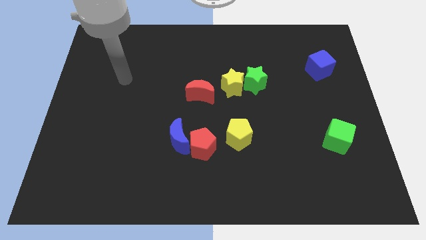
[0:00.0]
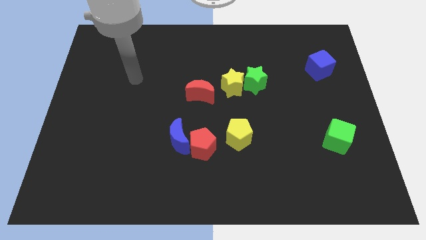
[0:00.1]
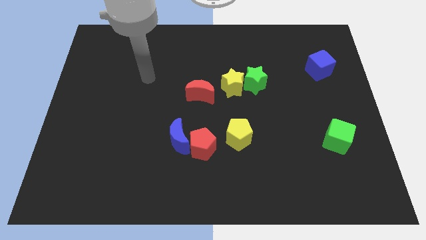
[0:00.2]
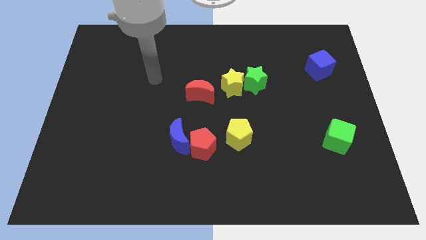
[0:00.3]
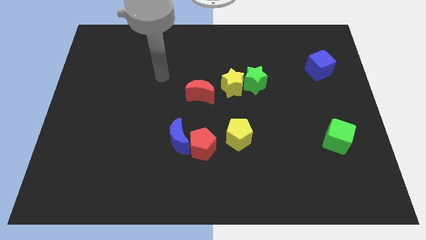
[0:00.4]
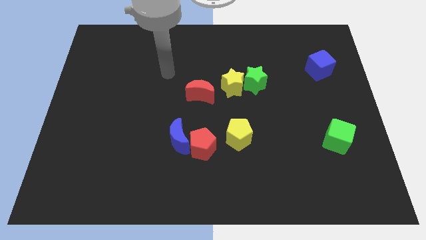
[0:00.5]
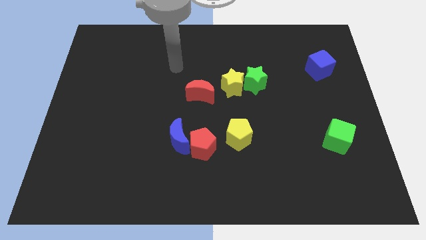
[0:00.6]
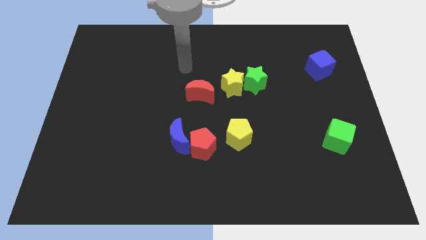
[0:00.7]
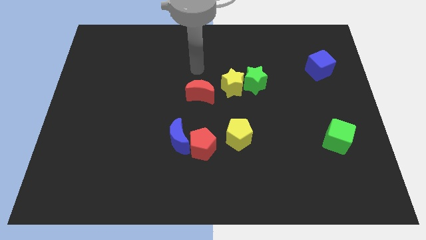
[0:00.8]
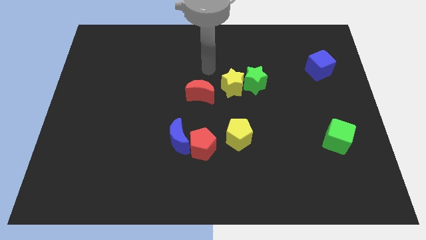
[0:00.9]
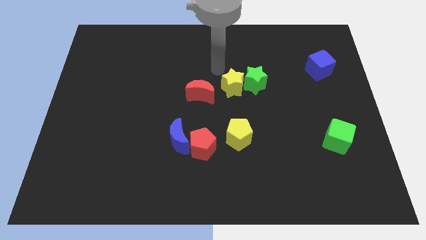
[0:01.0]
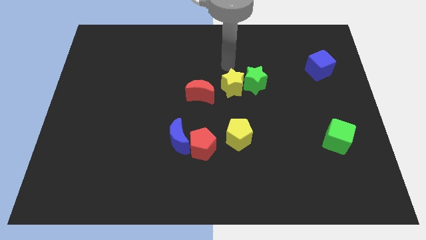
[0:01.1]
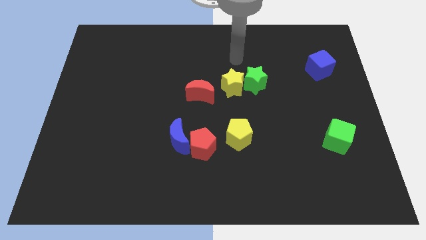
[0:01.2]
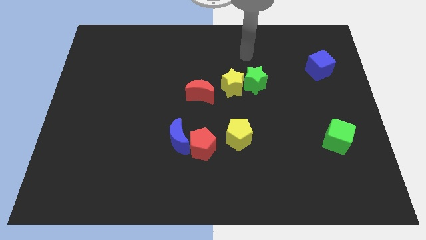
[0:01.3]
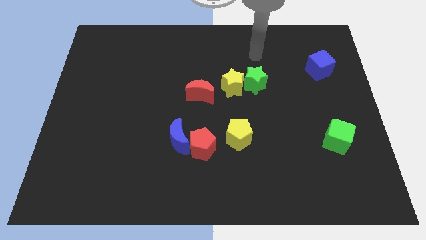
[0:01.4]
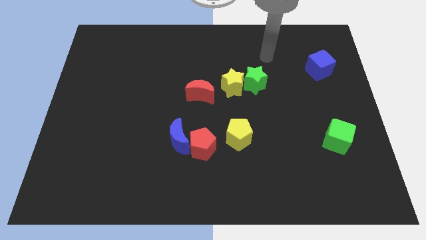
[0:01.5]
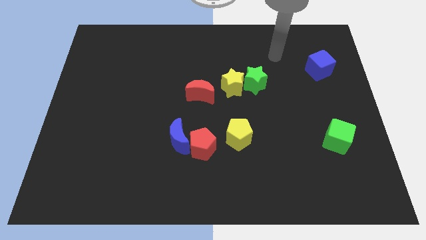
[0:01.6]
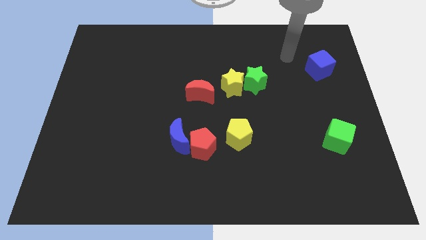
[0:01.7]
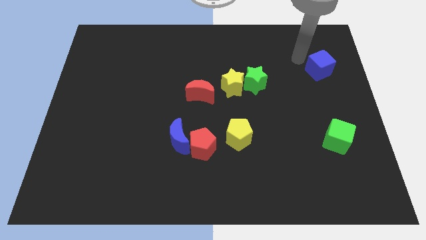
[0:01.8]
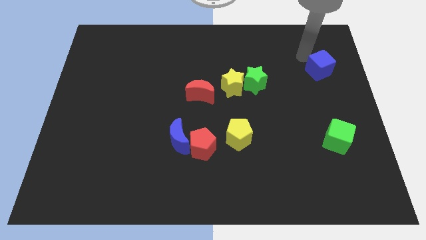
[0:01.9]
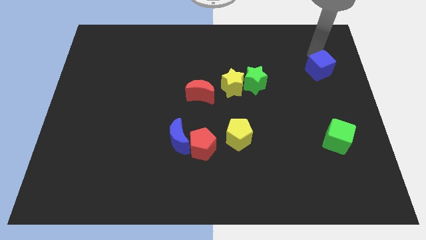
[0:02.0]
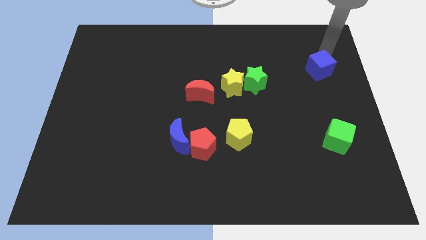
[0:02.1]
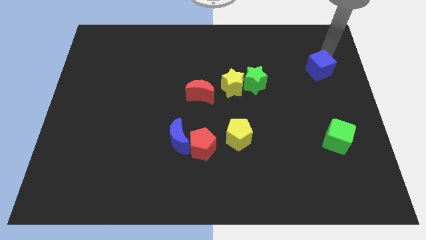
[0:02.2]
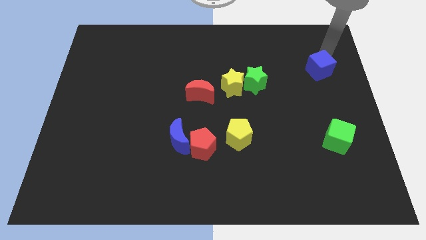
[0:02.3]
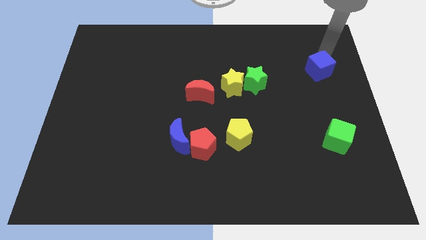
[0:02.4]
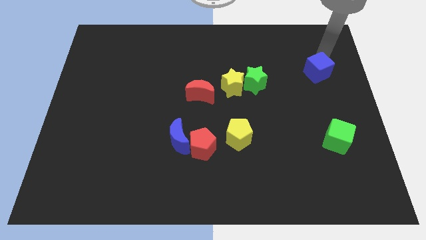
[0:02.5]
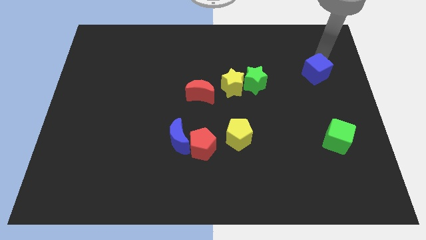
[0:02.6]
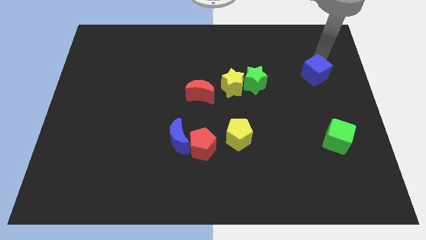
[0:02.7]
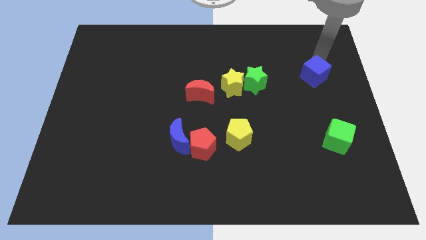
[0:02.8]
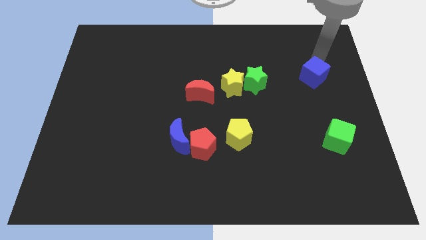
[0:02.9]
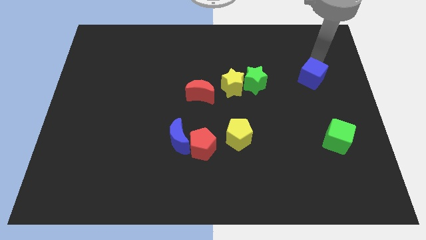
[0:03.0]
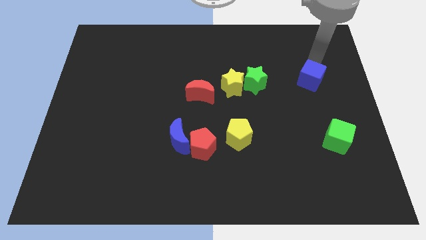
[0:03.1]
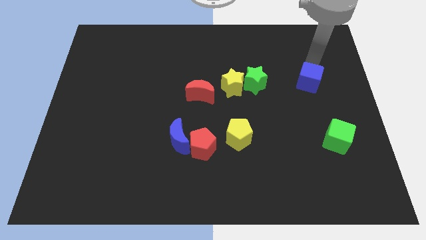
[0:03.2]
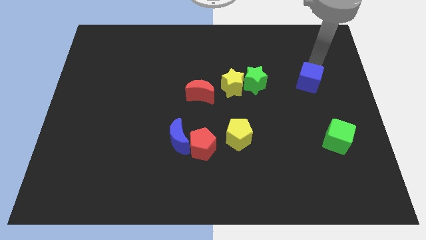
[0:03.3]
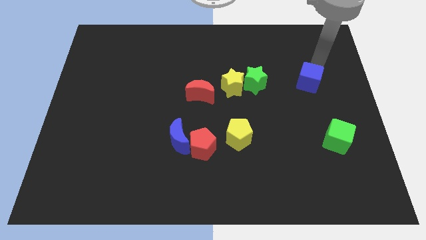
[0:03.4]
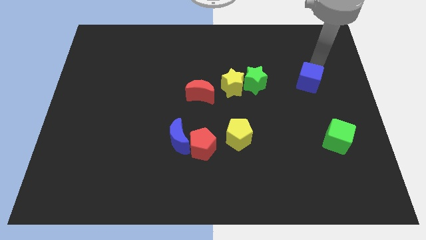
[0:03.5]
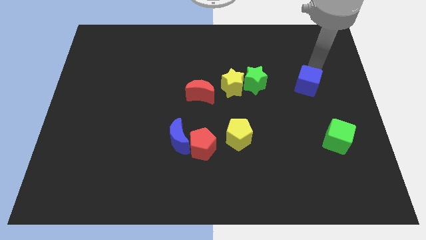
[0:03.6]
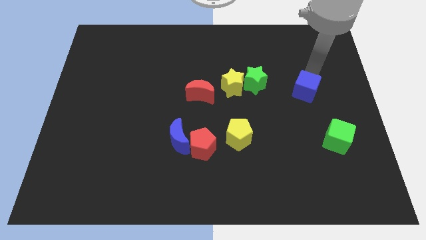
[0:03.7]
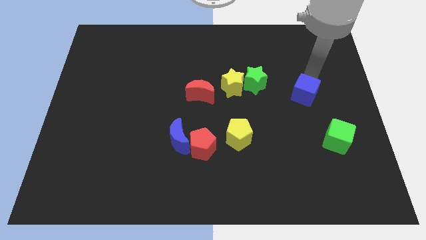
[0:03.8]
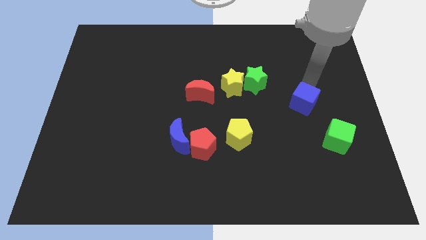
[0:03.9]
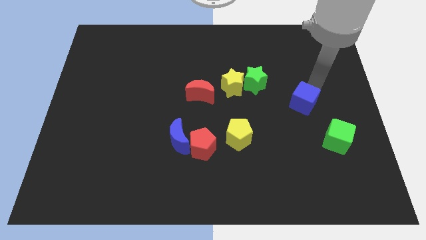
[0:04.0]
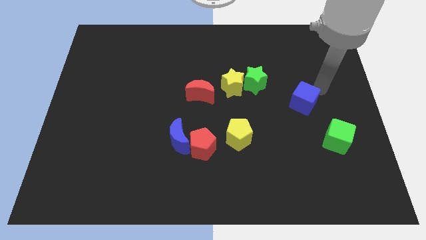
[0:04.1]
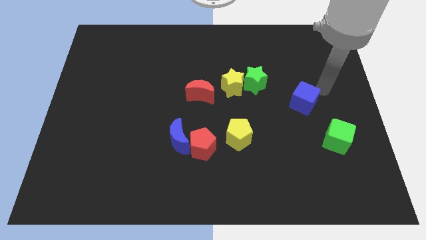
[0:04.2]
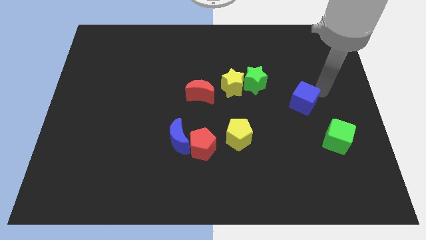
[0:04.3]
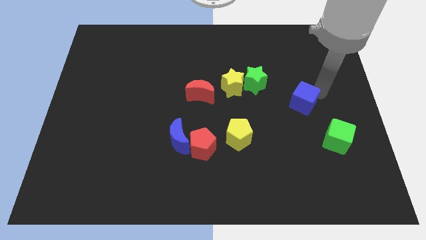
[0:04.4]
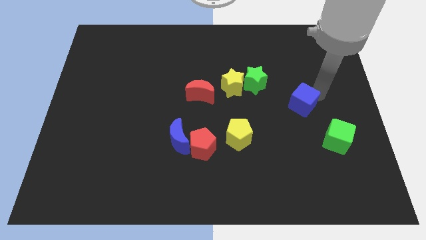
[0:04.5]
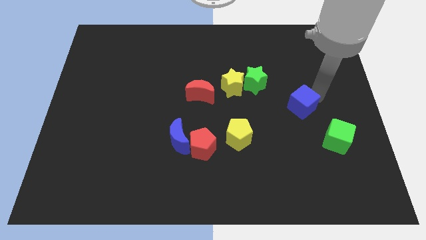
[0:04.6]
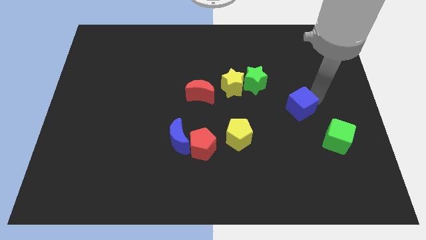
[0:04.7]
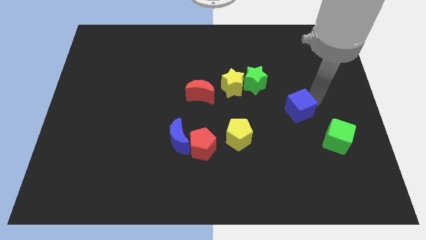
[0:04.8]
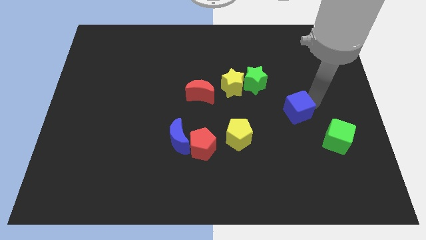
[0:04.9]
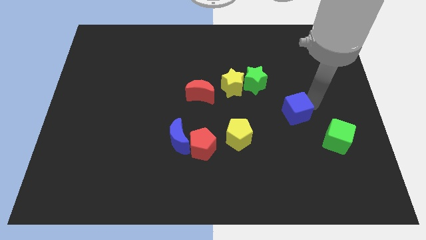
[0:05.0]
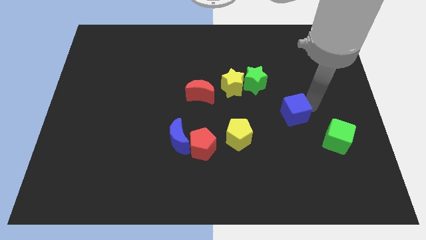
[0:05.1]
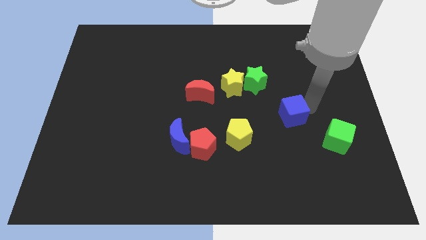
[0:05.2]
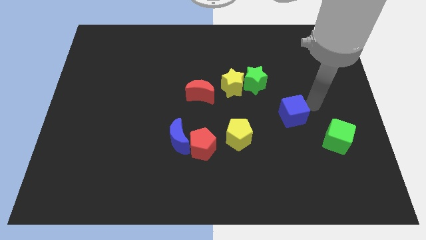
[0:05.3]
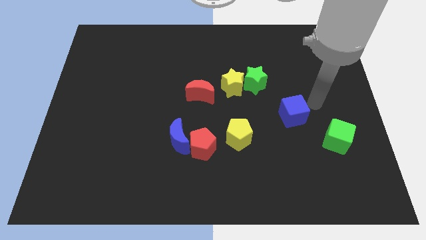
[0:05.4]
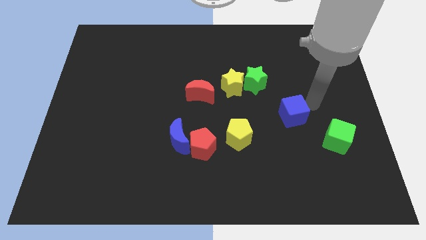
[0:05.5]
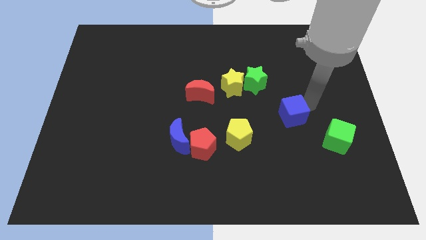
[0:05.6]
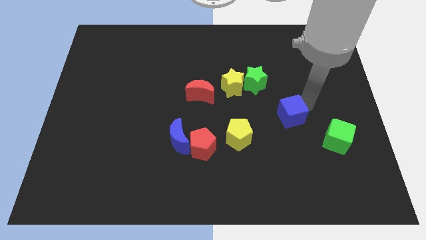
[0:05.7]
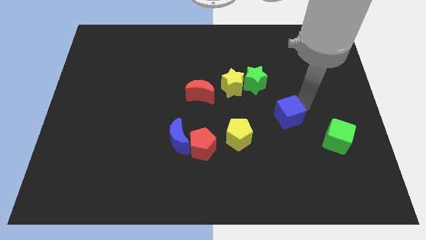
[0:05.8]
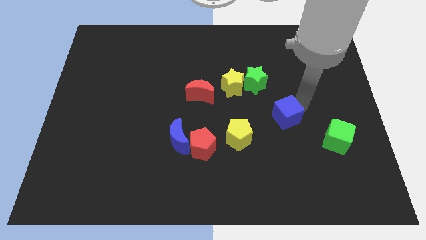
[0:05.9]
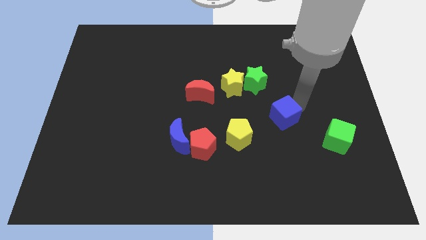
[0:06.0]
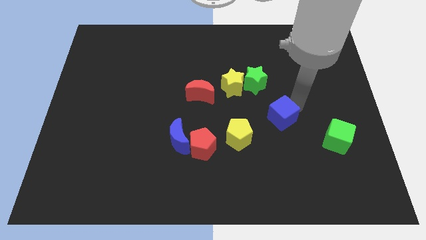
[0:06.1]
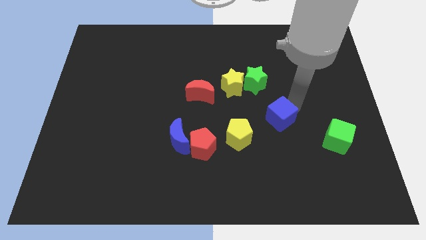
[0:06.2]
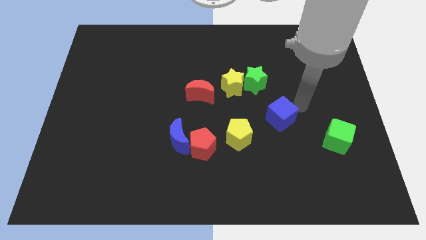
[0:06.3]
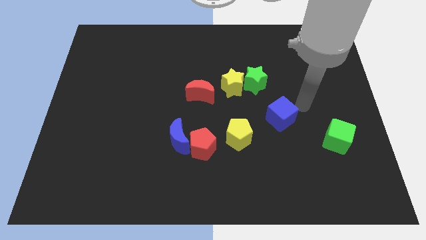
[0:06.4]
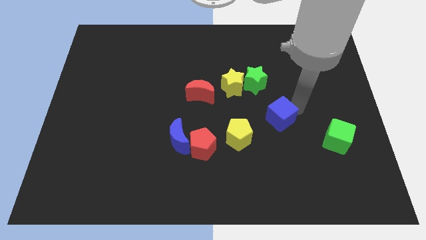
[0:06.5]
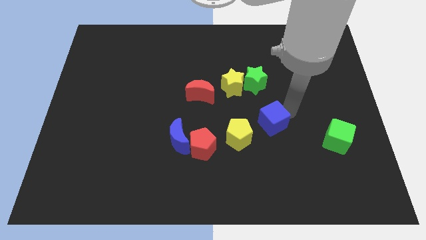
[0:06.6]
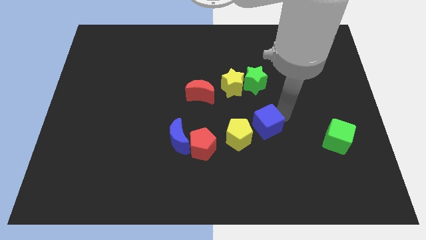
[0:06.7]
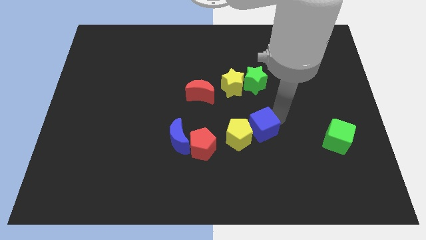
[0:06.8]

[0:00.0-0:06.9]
slide the blue cube towards the yellow pentagon

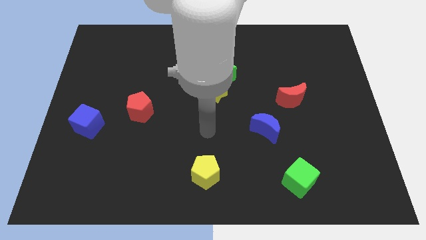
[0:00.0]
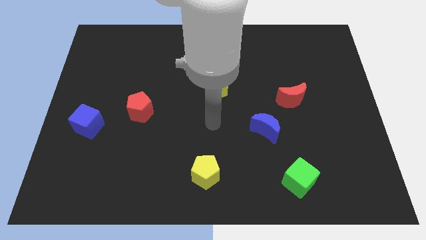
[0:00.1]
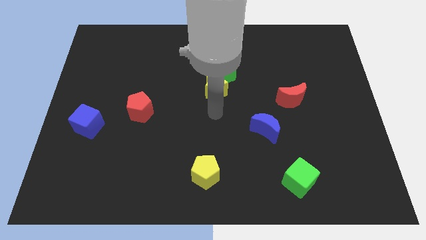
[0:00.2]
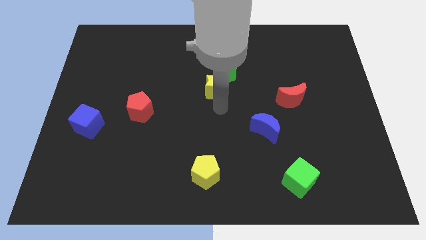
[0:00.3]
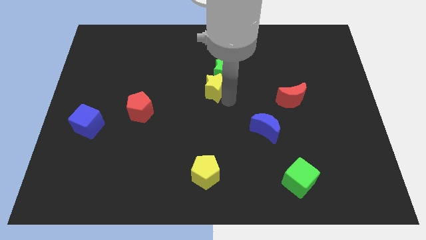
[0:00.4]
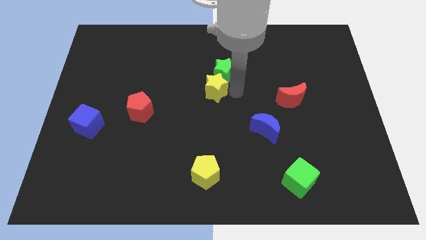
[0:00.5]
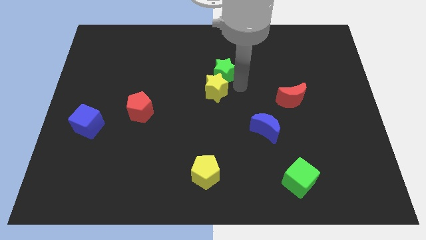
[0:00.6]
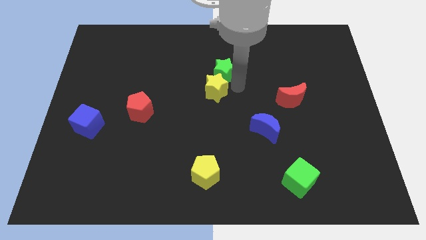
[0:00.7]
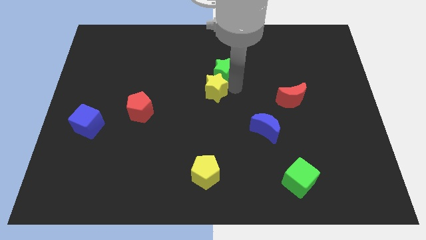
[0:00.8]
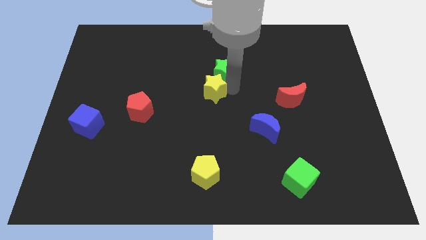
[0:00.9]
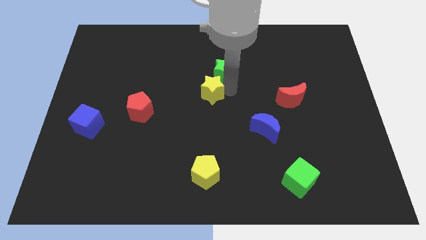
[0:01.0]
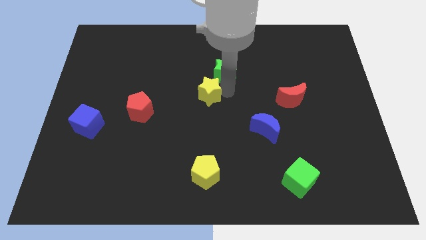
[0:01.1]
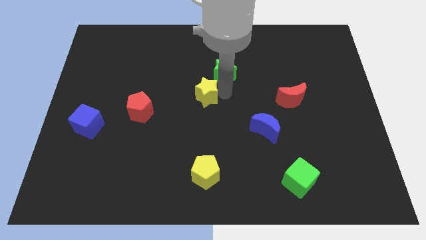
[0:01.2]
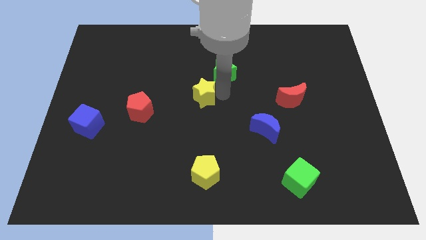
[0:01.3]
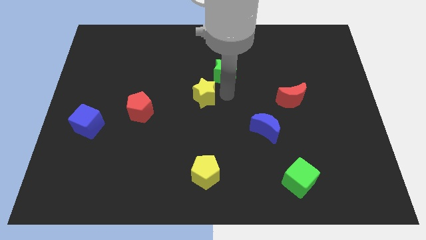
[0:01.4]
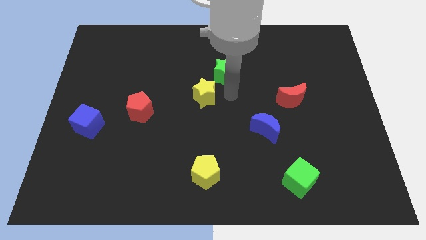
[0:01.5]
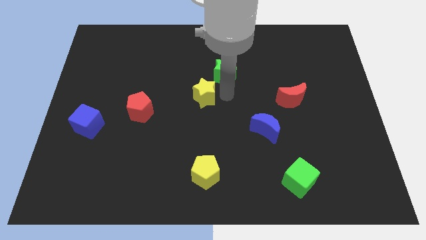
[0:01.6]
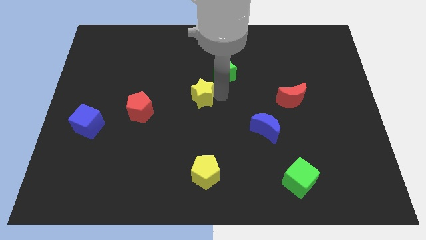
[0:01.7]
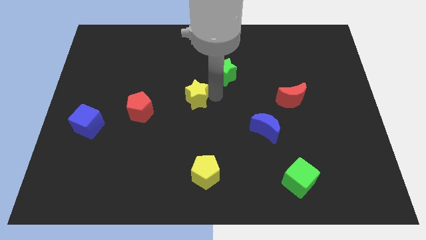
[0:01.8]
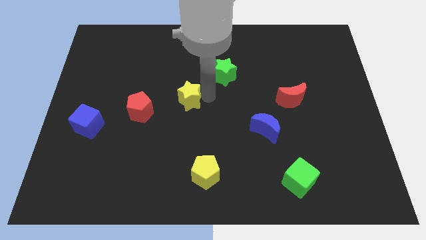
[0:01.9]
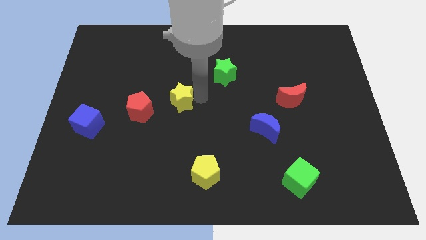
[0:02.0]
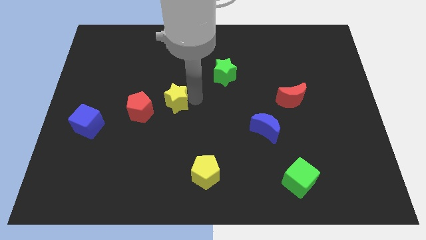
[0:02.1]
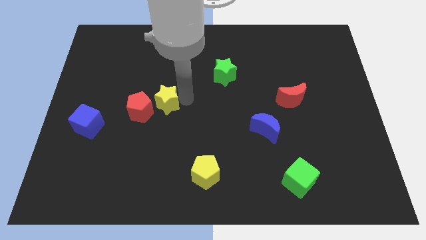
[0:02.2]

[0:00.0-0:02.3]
push the yellow star to the red pentagon
